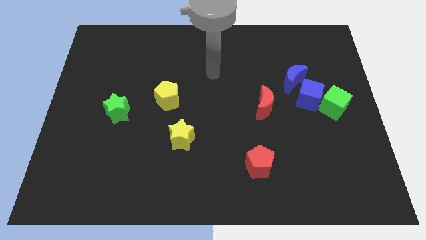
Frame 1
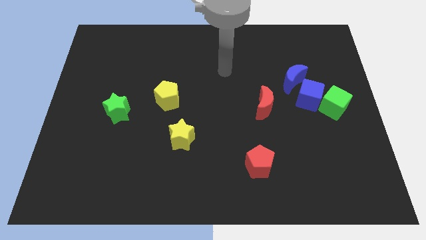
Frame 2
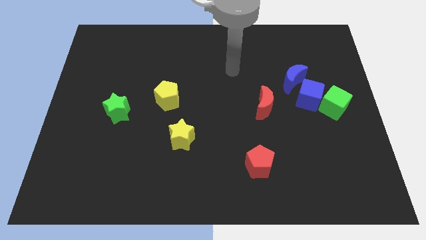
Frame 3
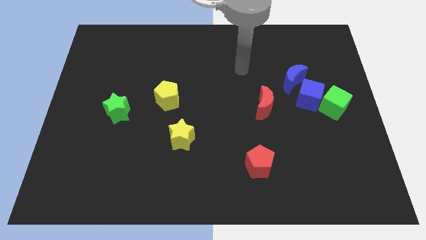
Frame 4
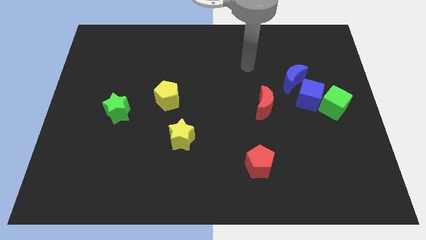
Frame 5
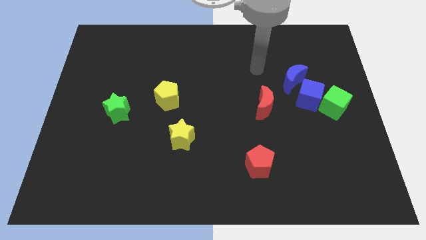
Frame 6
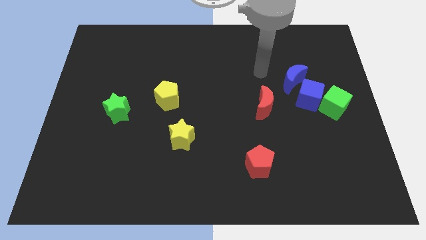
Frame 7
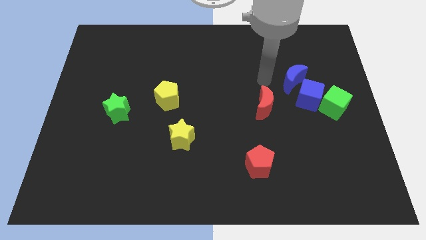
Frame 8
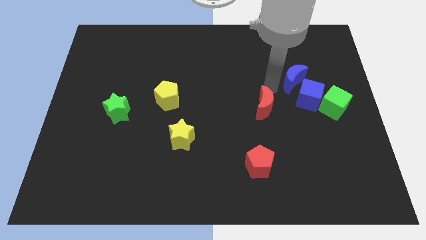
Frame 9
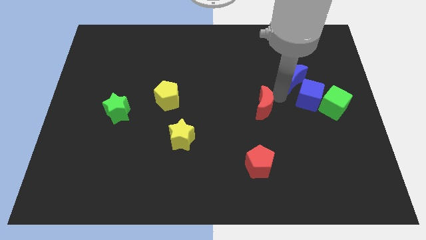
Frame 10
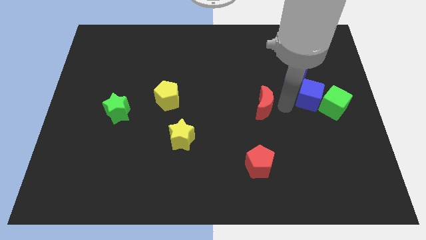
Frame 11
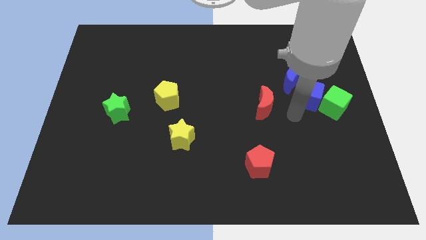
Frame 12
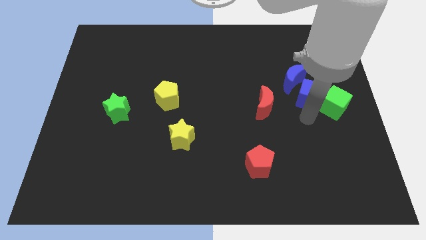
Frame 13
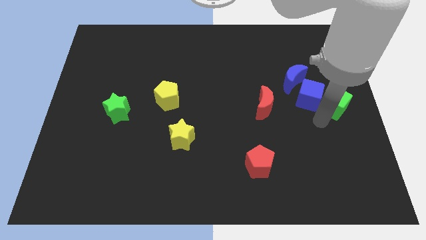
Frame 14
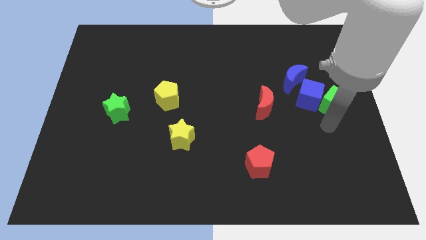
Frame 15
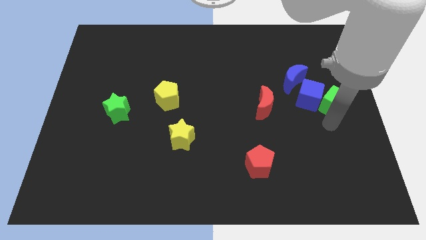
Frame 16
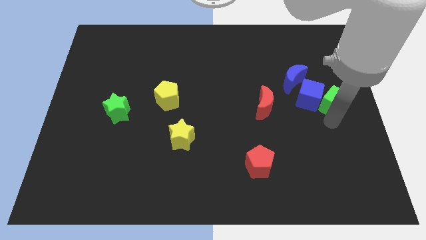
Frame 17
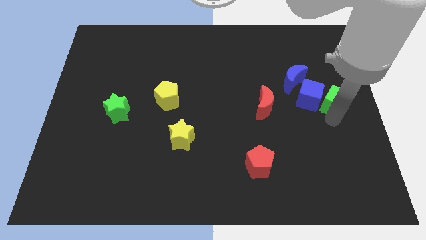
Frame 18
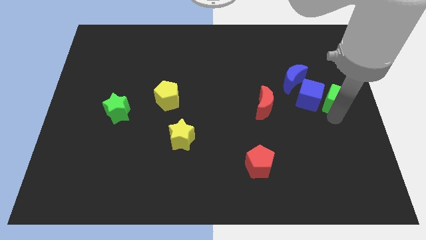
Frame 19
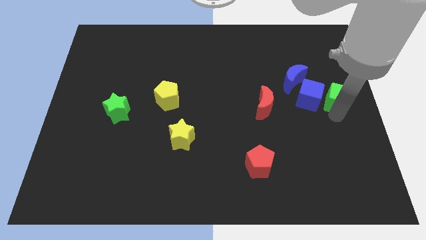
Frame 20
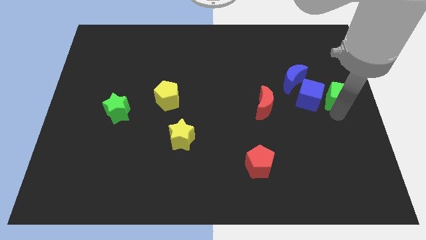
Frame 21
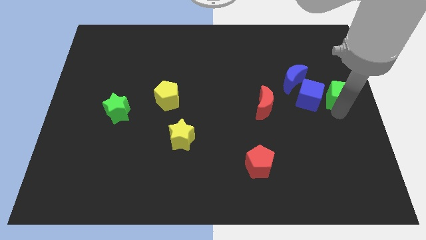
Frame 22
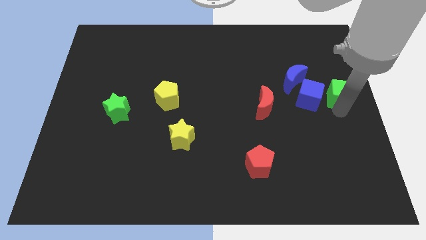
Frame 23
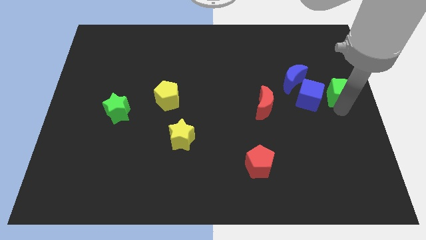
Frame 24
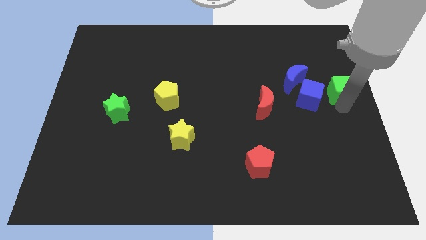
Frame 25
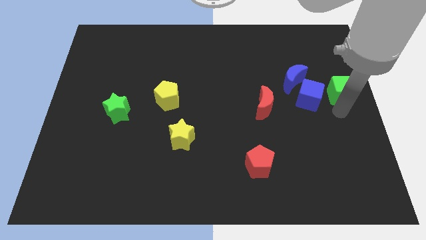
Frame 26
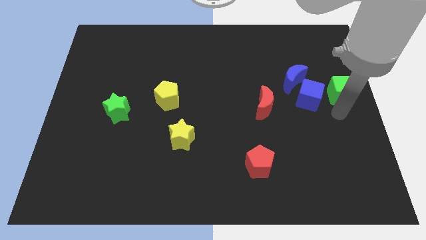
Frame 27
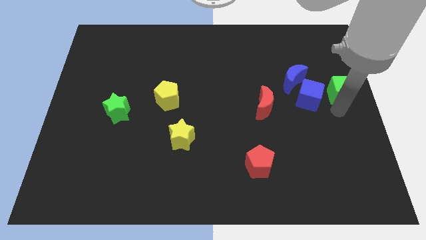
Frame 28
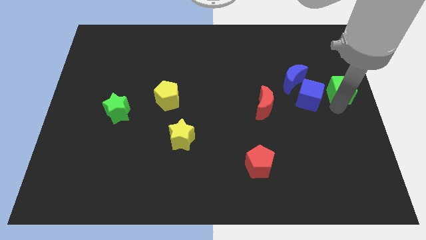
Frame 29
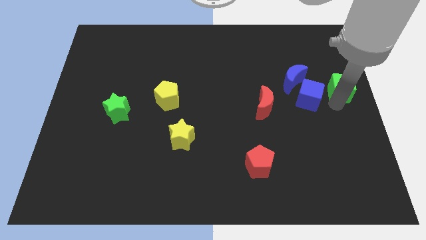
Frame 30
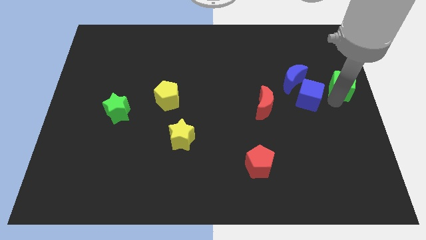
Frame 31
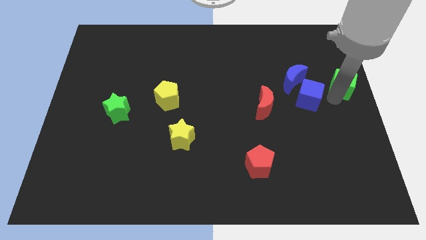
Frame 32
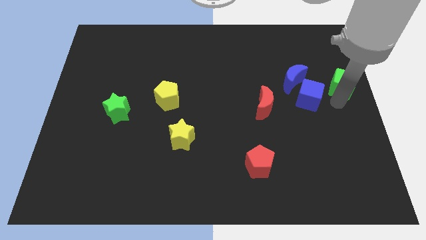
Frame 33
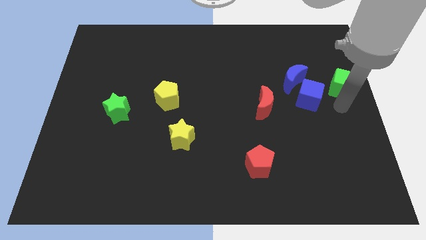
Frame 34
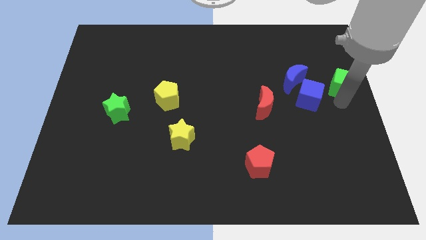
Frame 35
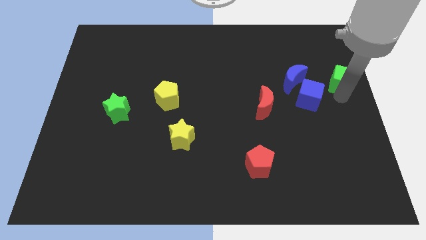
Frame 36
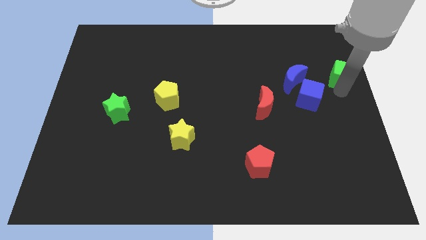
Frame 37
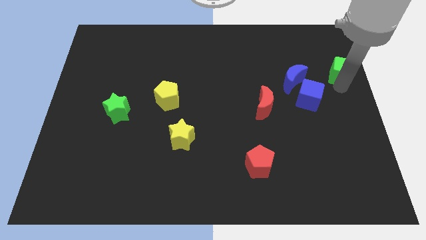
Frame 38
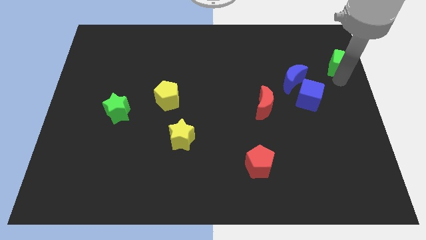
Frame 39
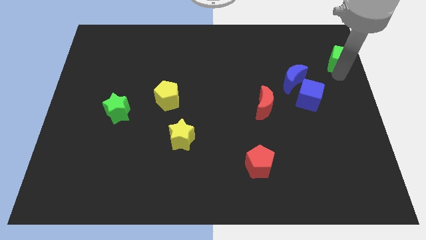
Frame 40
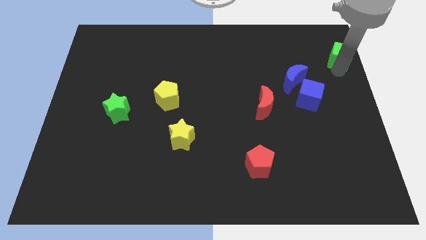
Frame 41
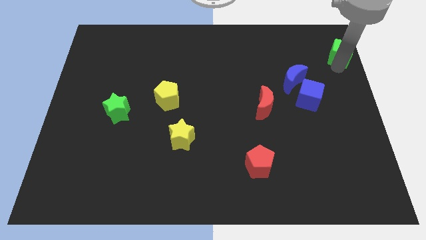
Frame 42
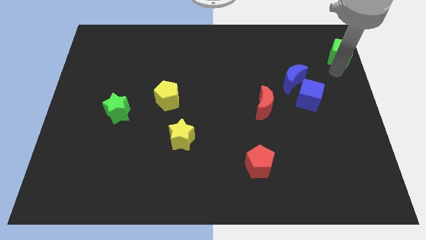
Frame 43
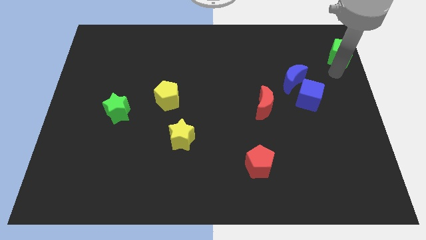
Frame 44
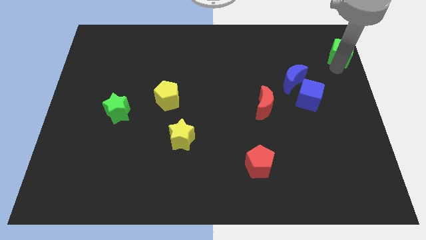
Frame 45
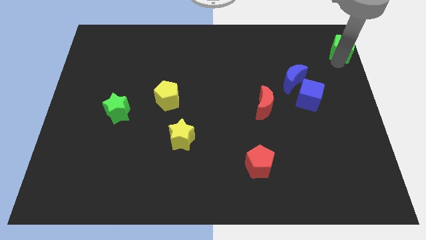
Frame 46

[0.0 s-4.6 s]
put the green cube to the top right

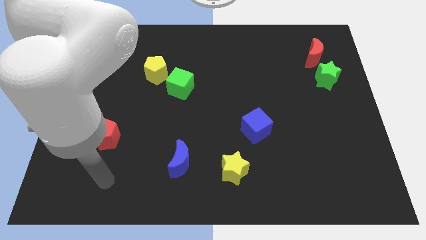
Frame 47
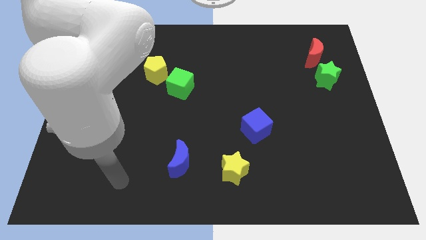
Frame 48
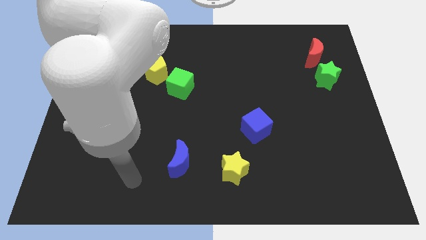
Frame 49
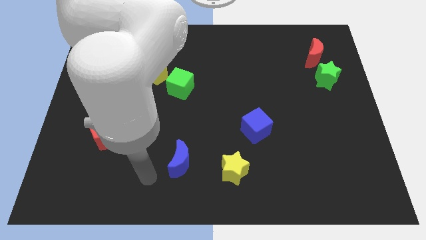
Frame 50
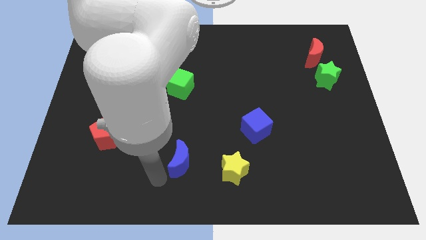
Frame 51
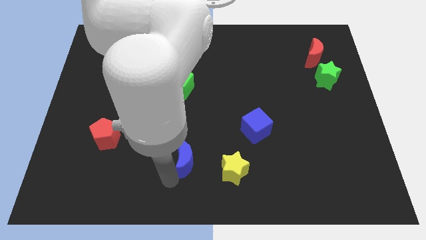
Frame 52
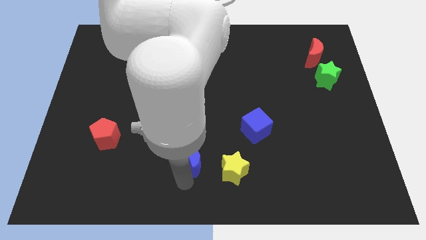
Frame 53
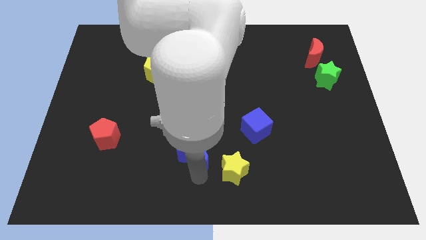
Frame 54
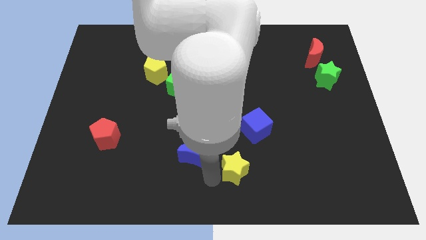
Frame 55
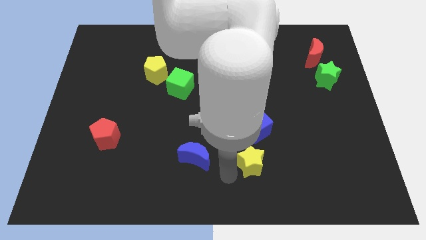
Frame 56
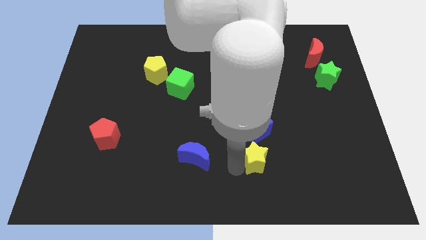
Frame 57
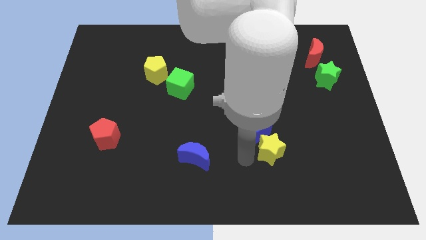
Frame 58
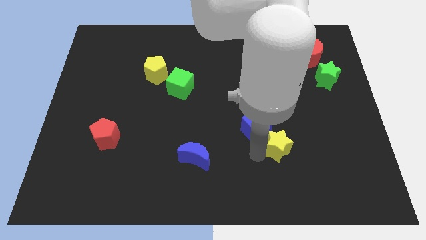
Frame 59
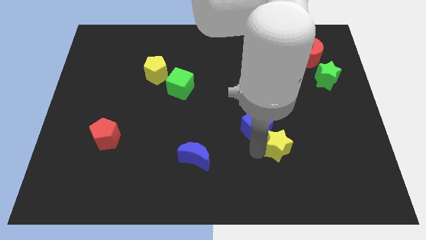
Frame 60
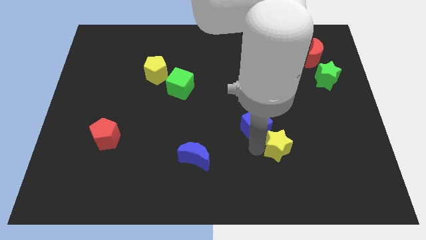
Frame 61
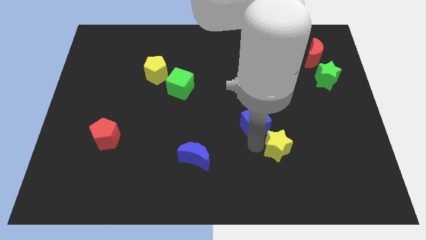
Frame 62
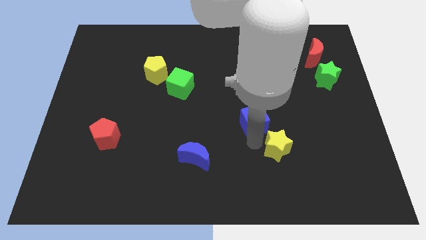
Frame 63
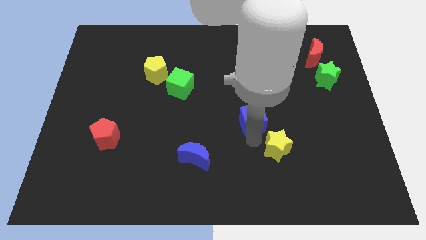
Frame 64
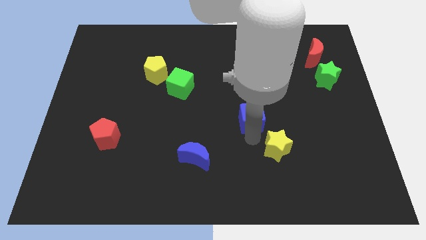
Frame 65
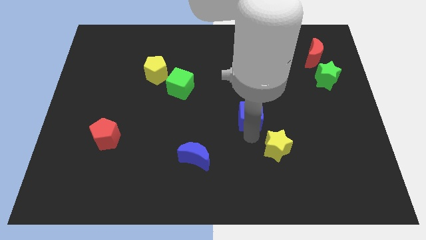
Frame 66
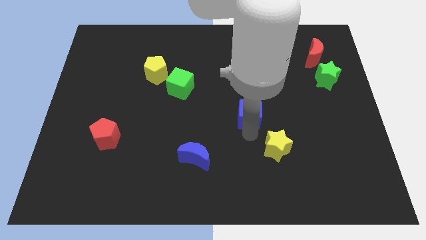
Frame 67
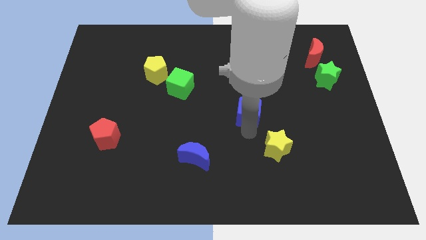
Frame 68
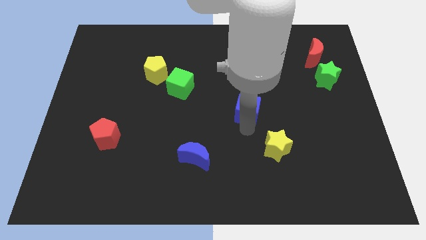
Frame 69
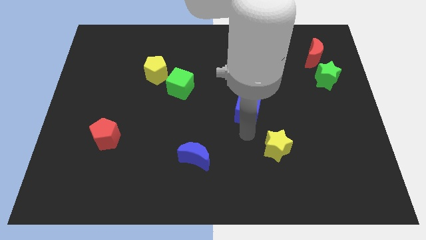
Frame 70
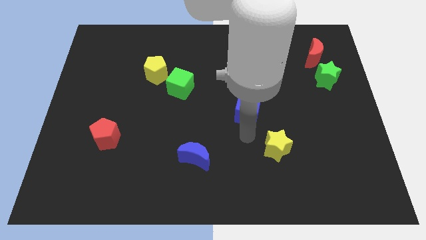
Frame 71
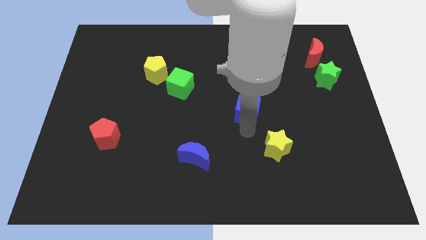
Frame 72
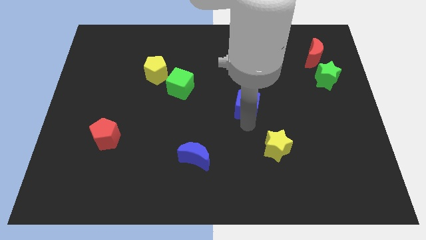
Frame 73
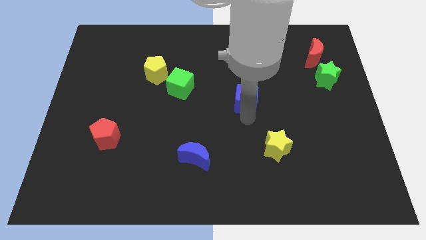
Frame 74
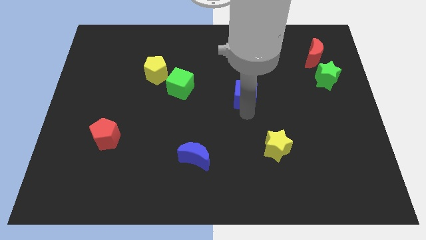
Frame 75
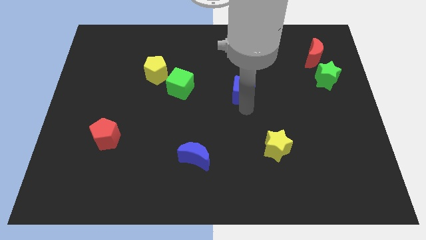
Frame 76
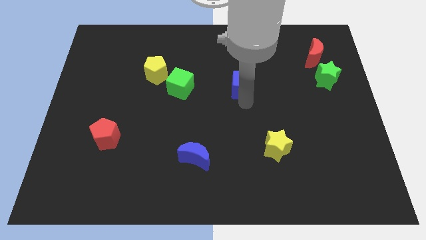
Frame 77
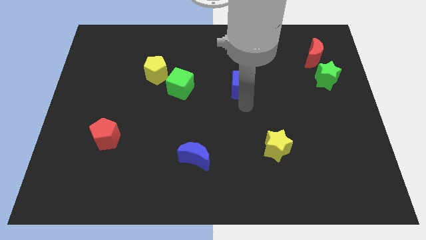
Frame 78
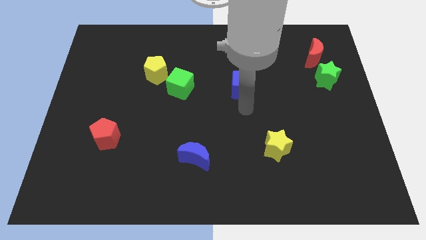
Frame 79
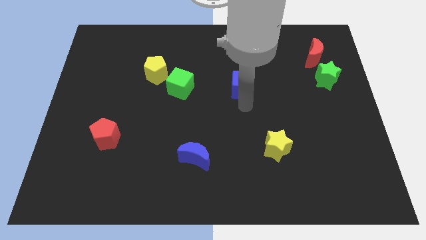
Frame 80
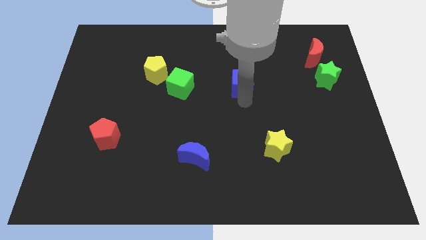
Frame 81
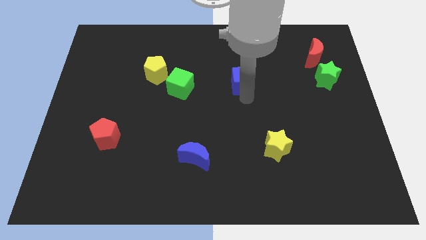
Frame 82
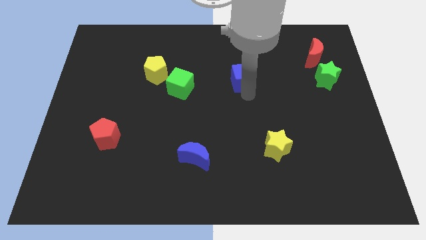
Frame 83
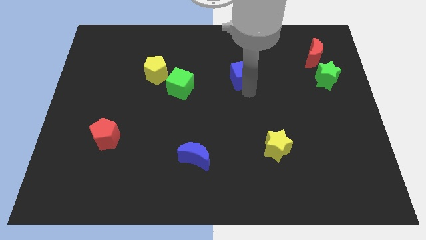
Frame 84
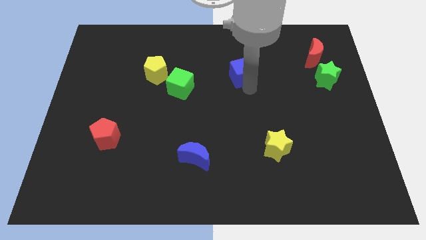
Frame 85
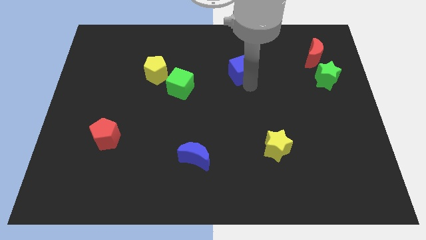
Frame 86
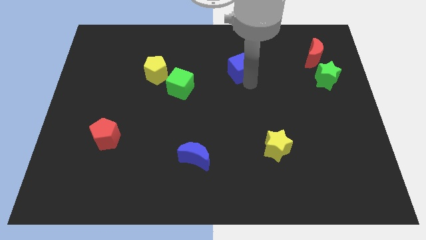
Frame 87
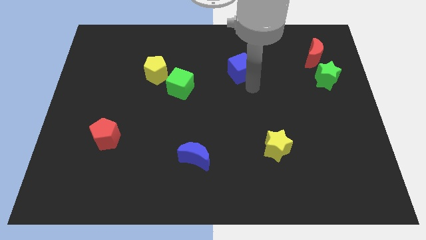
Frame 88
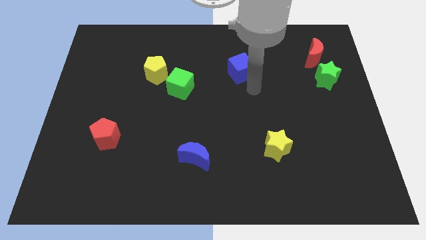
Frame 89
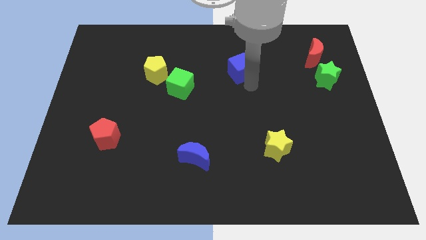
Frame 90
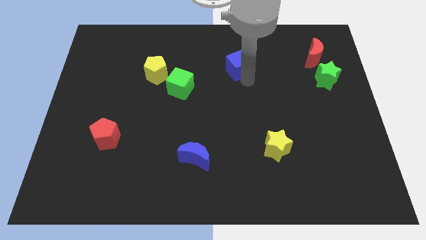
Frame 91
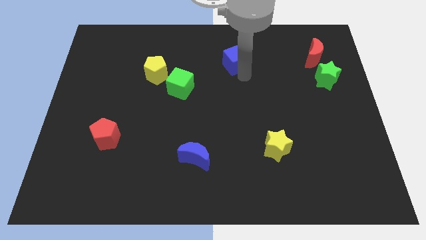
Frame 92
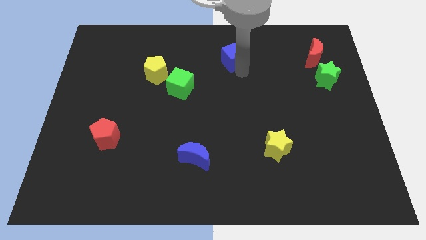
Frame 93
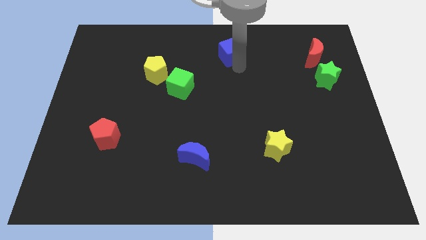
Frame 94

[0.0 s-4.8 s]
move the blue cube to the top side
